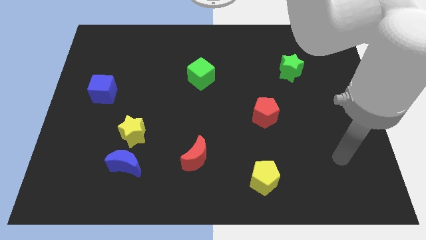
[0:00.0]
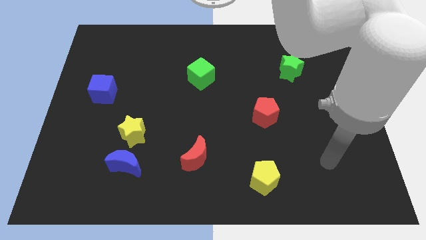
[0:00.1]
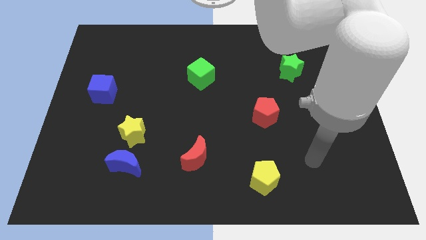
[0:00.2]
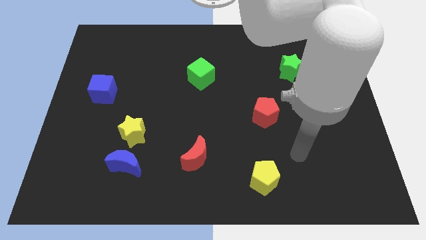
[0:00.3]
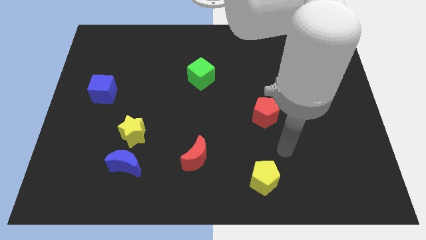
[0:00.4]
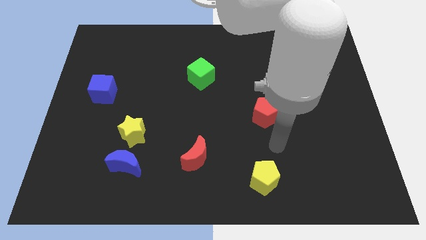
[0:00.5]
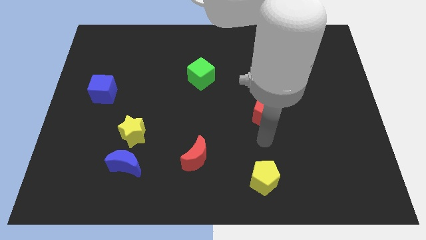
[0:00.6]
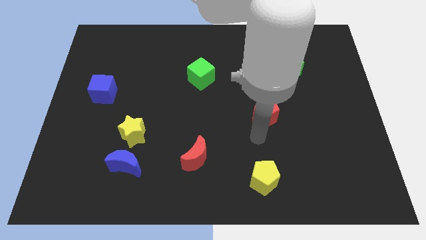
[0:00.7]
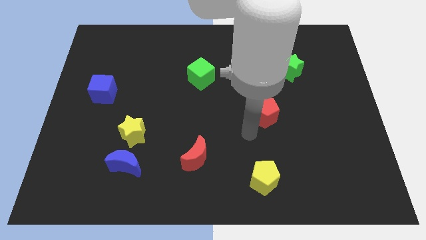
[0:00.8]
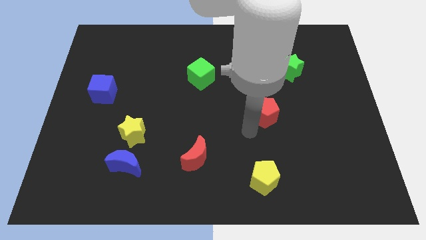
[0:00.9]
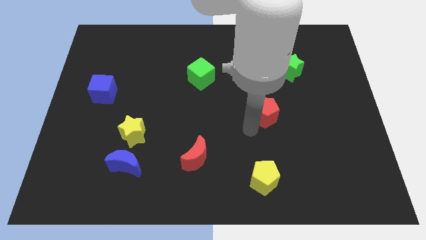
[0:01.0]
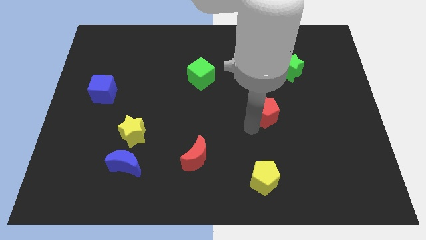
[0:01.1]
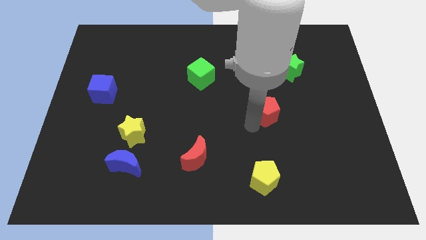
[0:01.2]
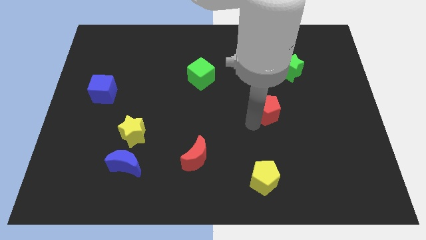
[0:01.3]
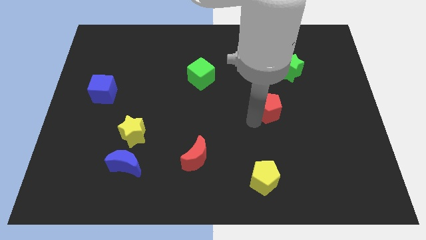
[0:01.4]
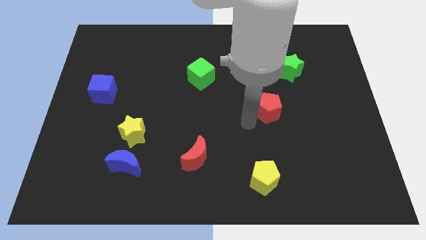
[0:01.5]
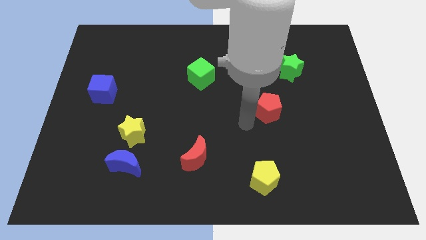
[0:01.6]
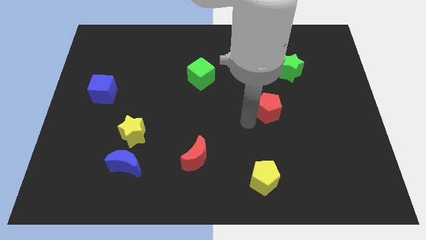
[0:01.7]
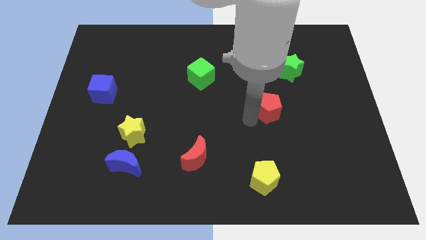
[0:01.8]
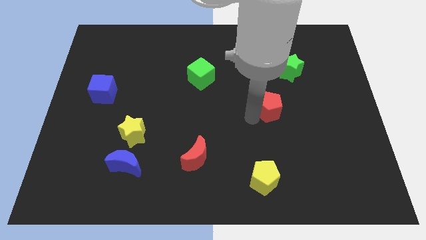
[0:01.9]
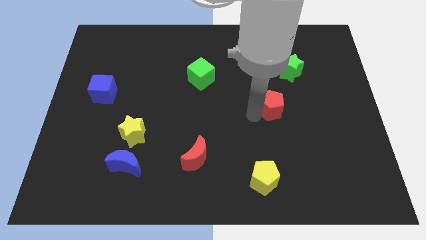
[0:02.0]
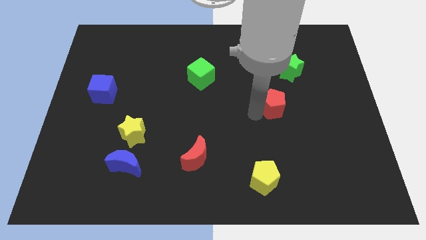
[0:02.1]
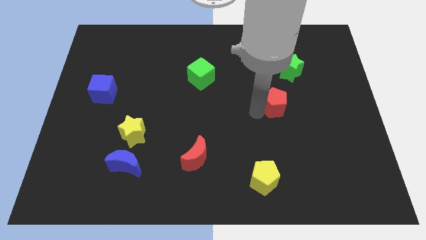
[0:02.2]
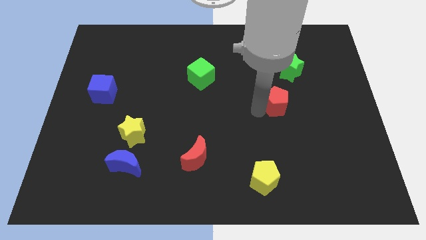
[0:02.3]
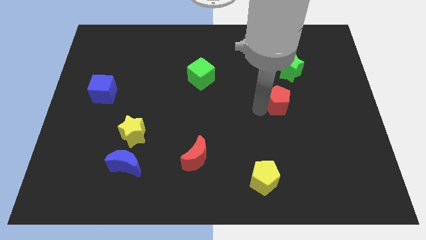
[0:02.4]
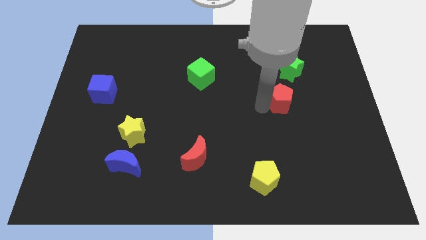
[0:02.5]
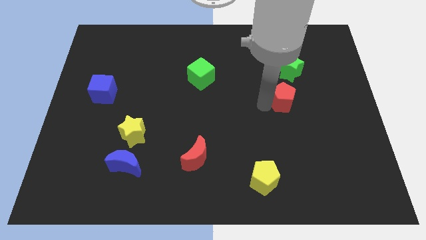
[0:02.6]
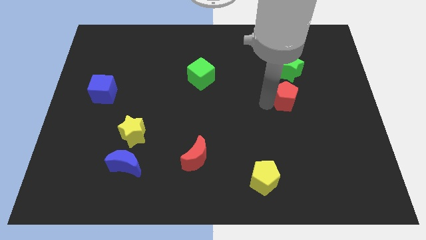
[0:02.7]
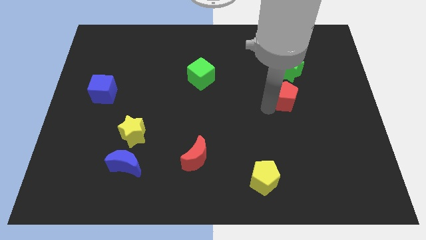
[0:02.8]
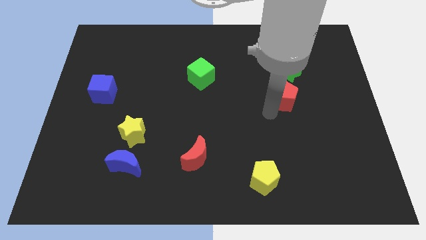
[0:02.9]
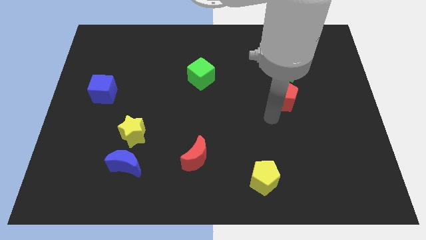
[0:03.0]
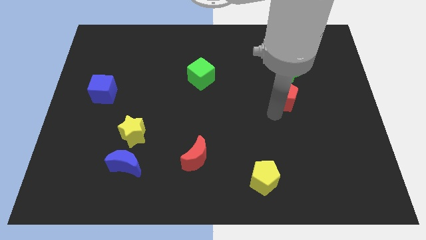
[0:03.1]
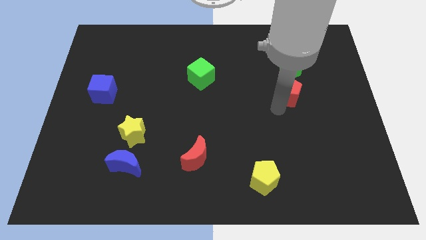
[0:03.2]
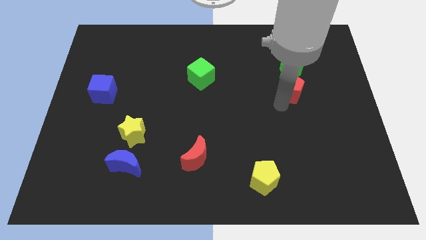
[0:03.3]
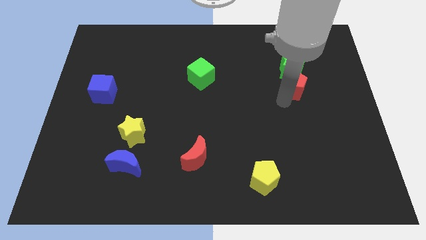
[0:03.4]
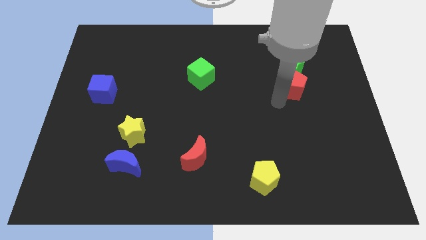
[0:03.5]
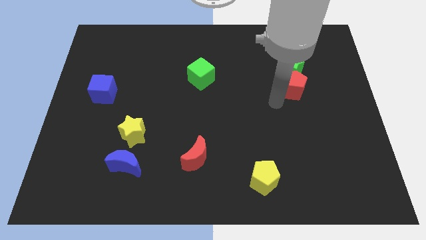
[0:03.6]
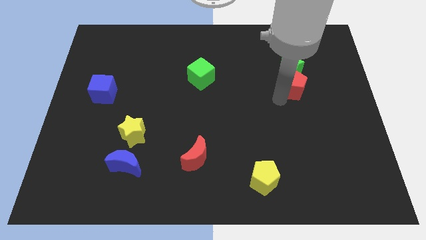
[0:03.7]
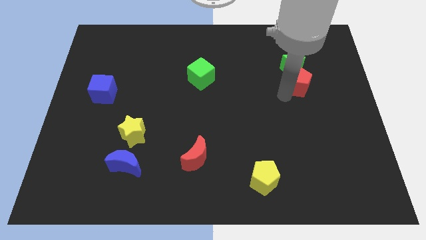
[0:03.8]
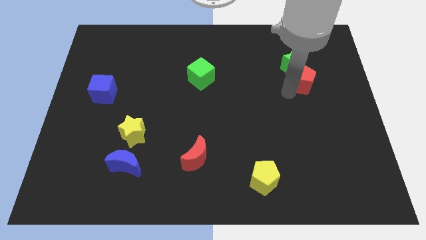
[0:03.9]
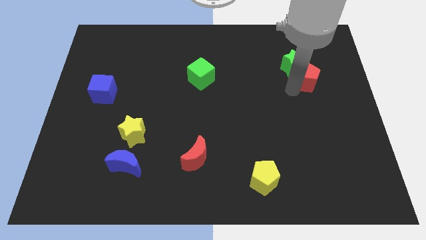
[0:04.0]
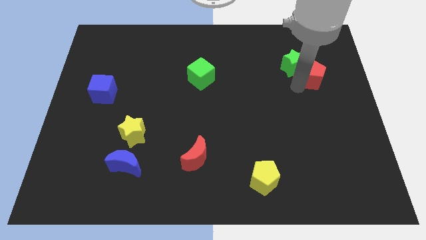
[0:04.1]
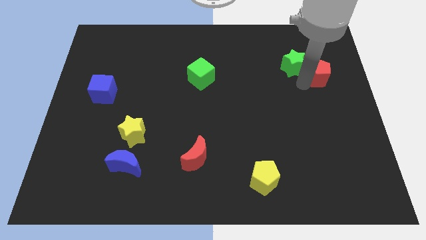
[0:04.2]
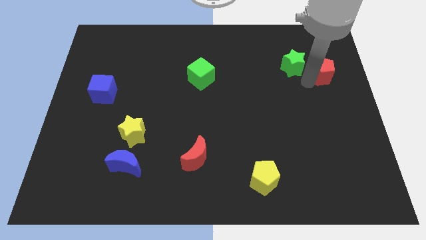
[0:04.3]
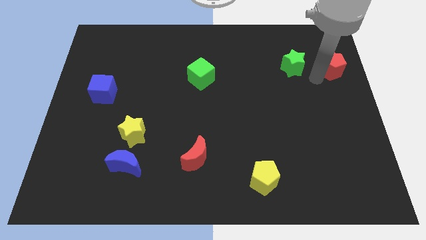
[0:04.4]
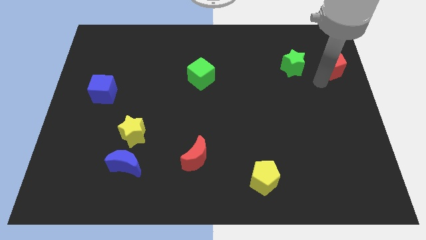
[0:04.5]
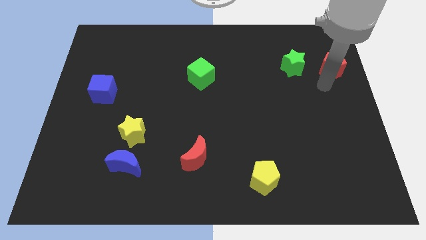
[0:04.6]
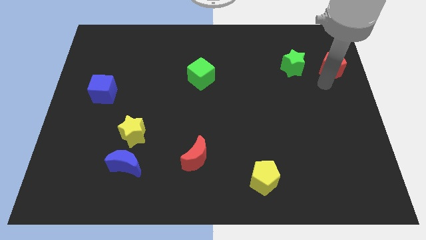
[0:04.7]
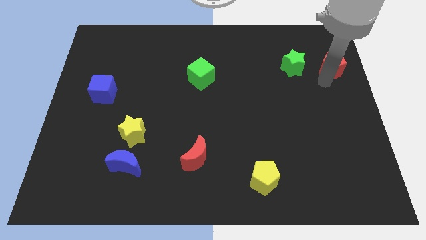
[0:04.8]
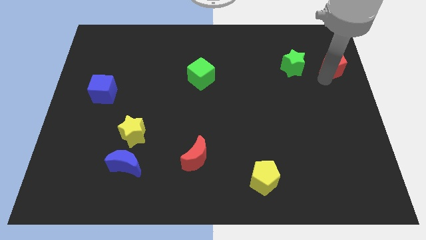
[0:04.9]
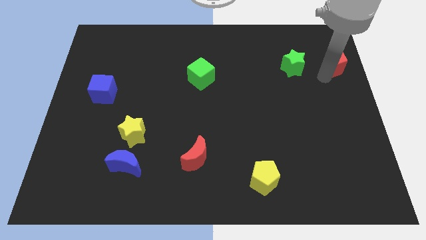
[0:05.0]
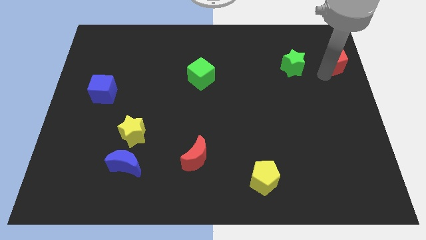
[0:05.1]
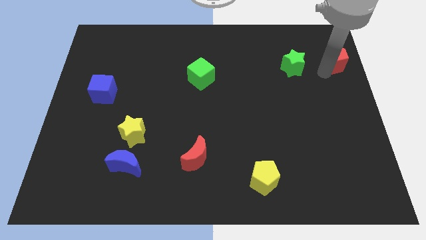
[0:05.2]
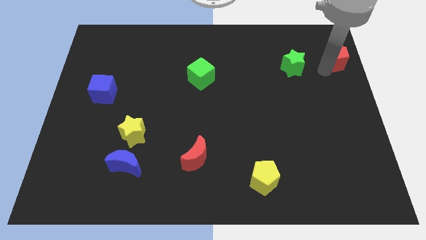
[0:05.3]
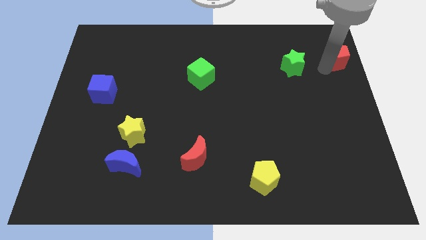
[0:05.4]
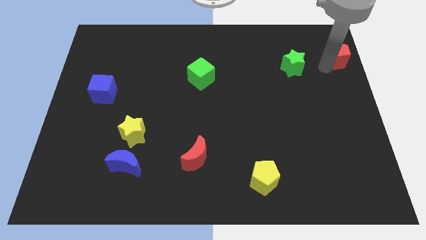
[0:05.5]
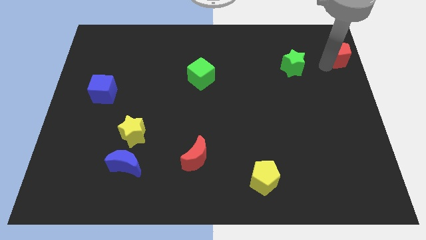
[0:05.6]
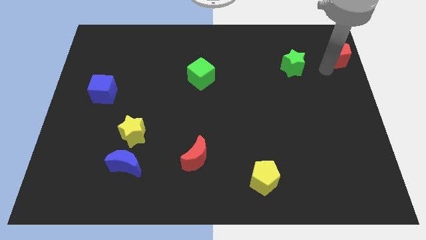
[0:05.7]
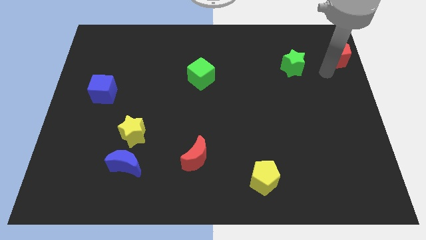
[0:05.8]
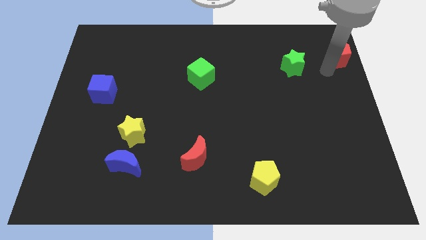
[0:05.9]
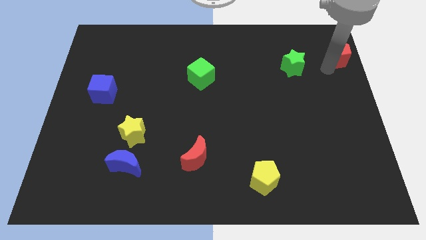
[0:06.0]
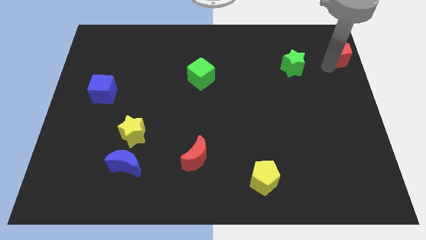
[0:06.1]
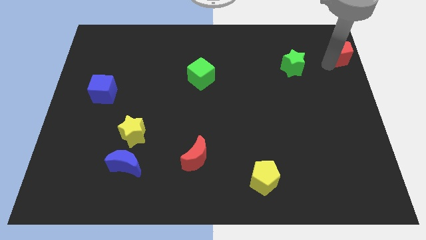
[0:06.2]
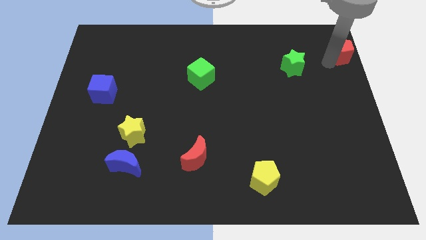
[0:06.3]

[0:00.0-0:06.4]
push the red pentagon to the upper right corner
